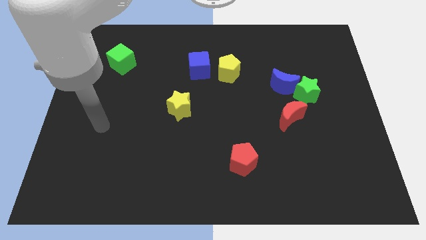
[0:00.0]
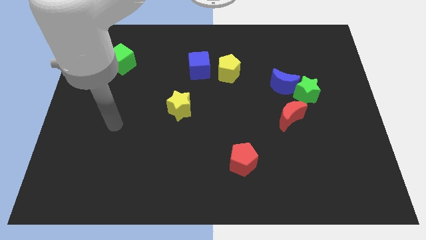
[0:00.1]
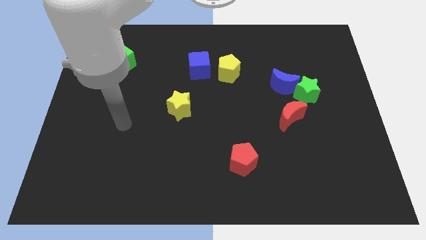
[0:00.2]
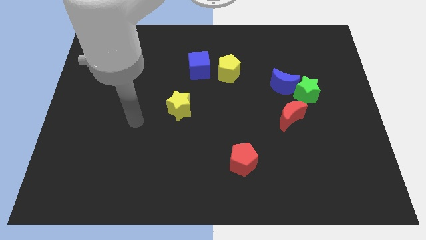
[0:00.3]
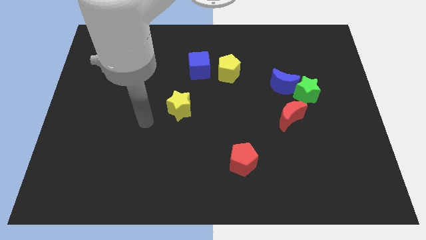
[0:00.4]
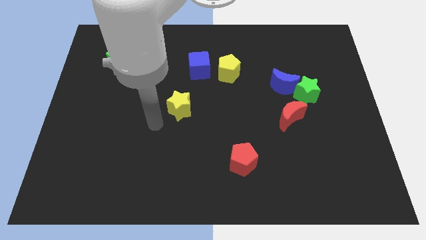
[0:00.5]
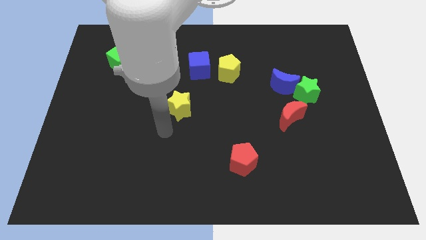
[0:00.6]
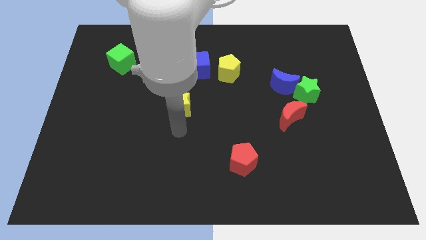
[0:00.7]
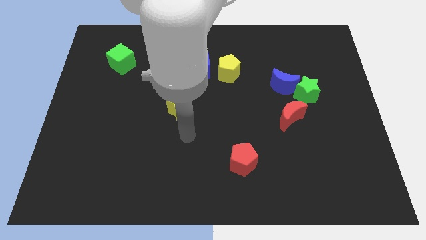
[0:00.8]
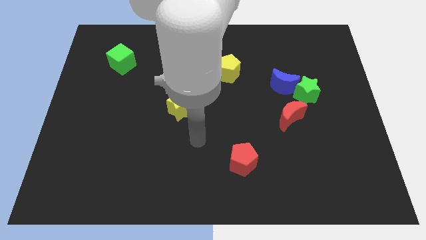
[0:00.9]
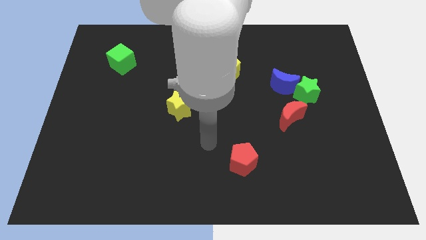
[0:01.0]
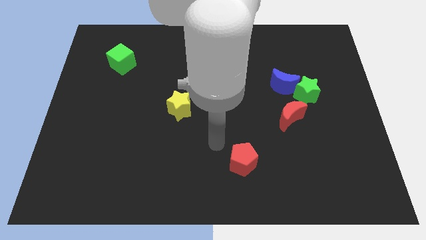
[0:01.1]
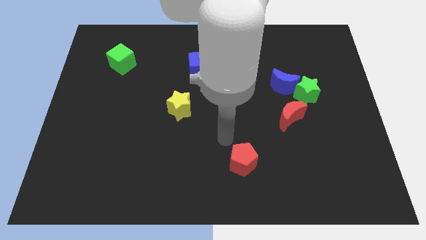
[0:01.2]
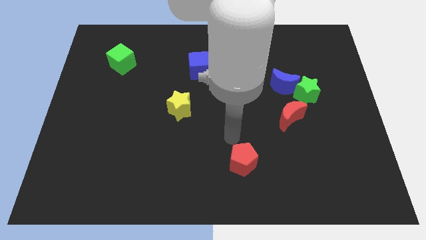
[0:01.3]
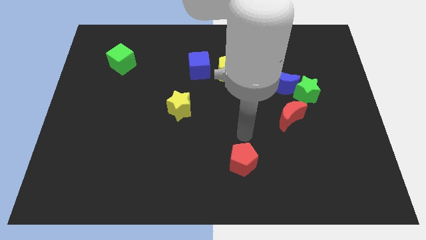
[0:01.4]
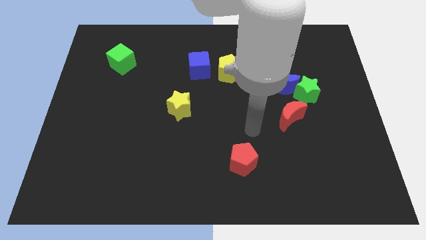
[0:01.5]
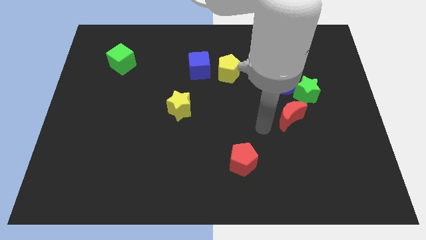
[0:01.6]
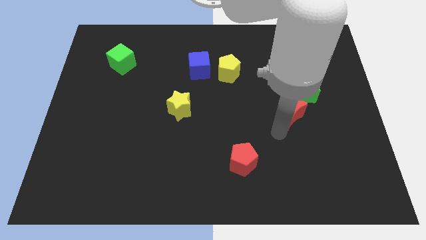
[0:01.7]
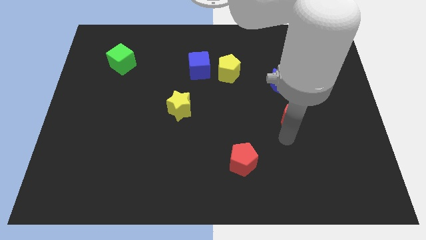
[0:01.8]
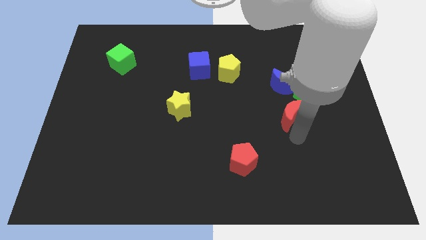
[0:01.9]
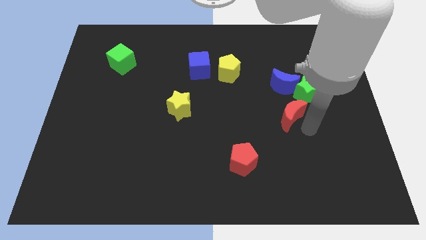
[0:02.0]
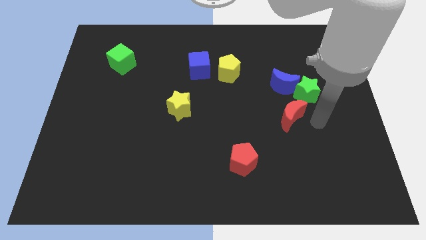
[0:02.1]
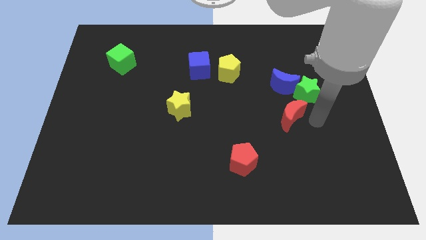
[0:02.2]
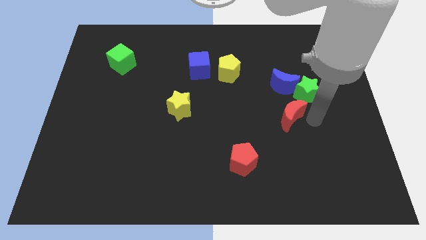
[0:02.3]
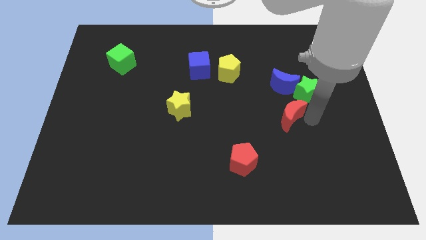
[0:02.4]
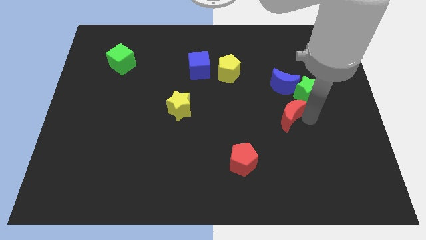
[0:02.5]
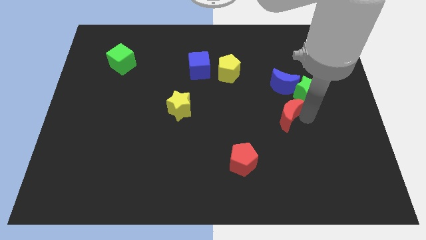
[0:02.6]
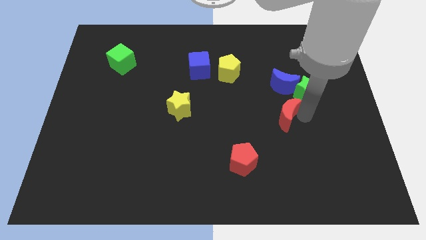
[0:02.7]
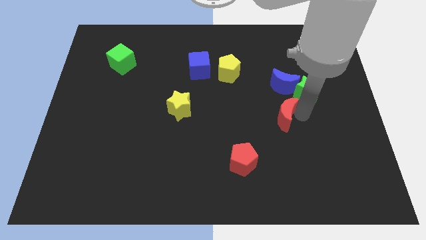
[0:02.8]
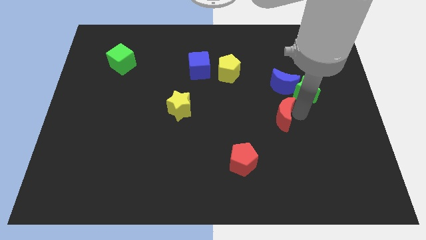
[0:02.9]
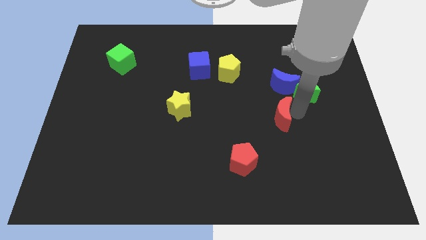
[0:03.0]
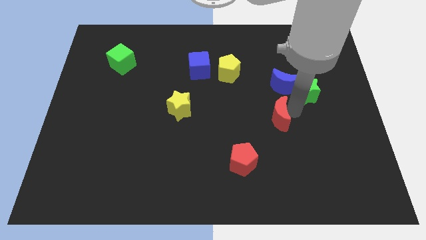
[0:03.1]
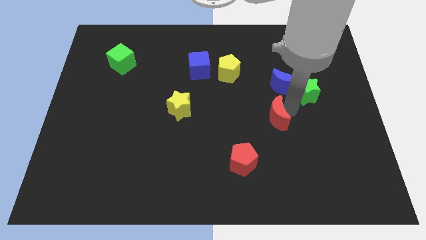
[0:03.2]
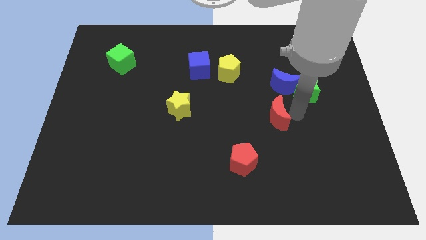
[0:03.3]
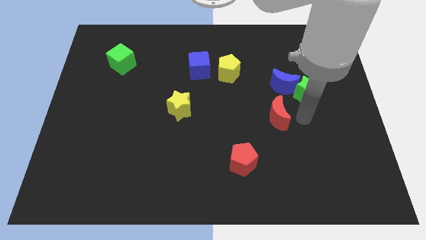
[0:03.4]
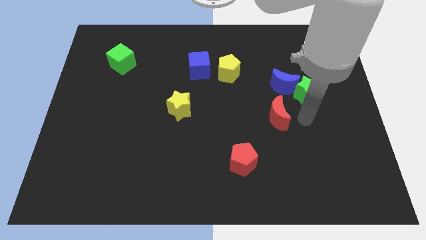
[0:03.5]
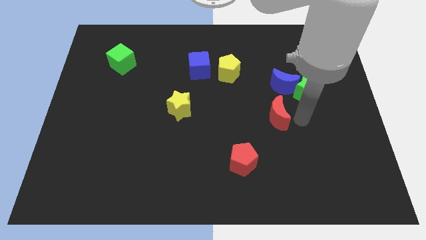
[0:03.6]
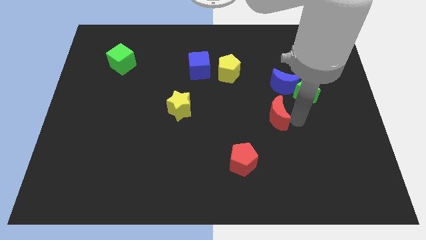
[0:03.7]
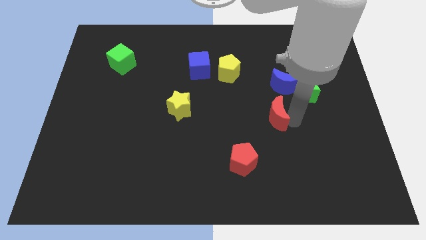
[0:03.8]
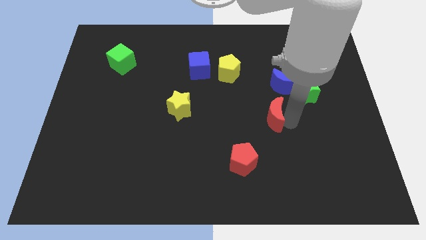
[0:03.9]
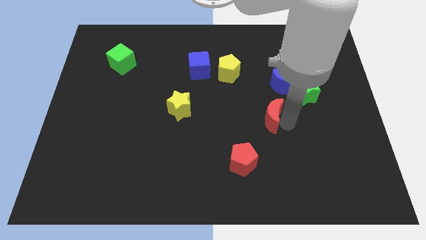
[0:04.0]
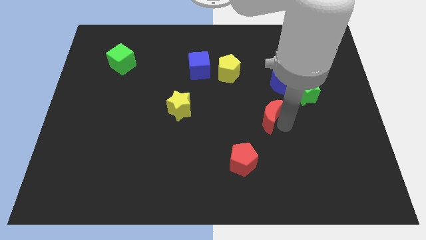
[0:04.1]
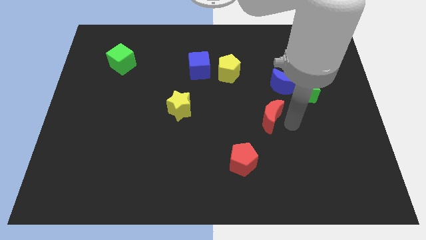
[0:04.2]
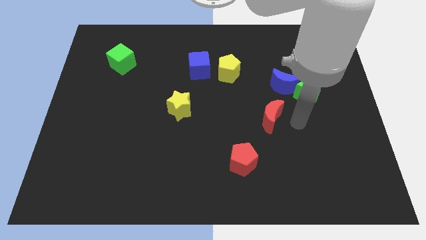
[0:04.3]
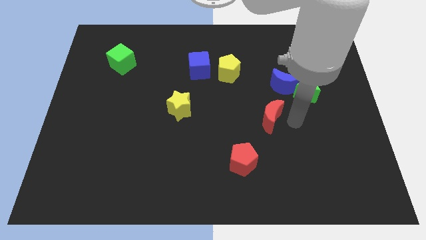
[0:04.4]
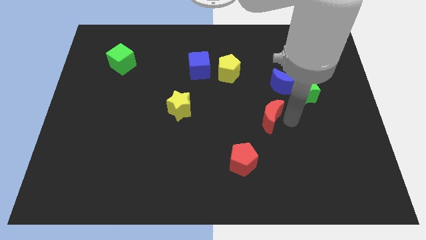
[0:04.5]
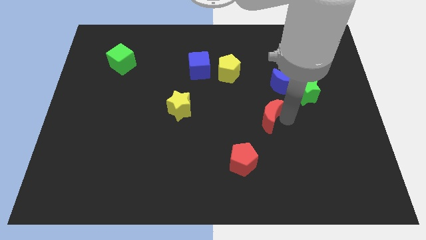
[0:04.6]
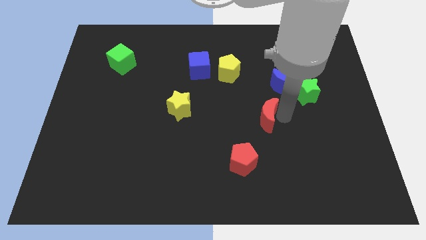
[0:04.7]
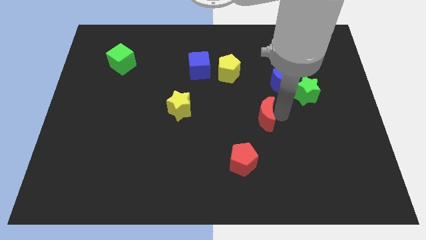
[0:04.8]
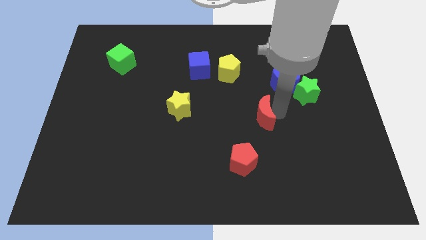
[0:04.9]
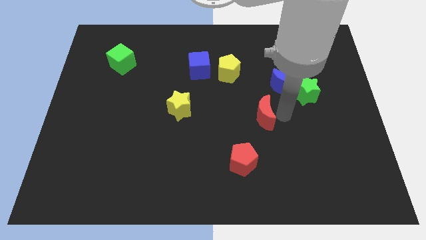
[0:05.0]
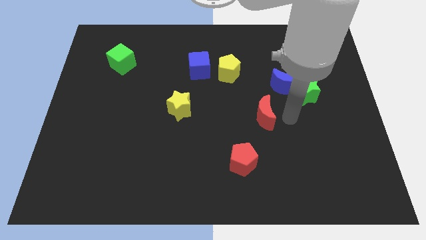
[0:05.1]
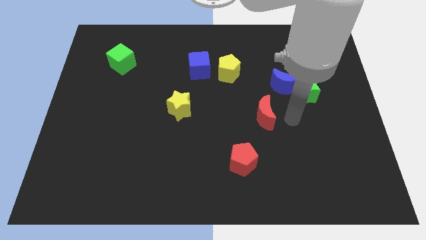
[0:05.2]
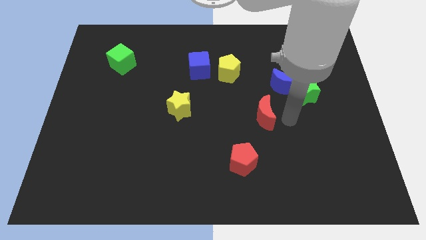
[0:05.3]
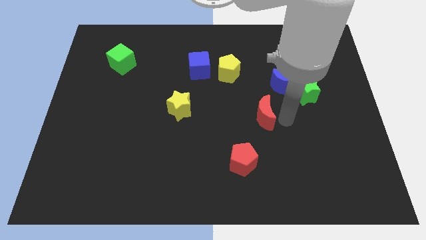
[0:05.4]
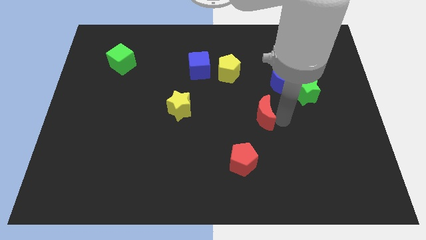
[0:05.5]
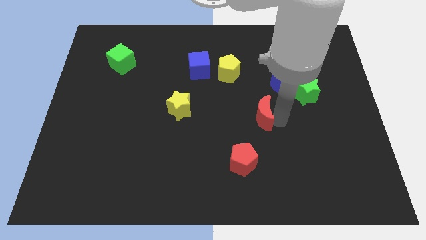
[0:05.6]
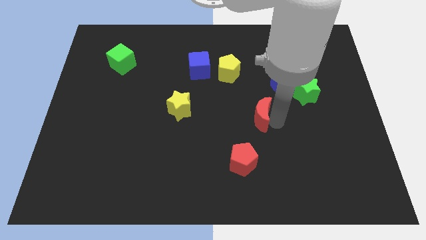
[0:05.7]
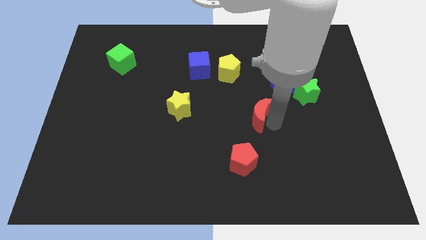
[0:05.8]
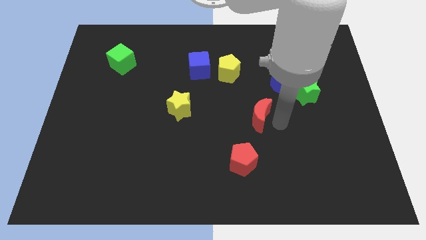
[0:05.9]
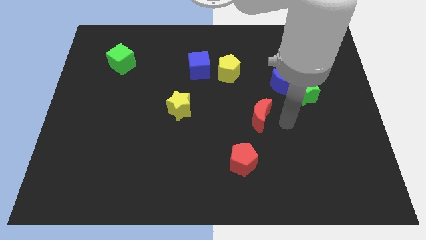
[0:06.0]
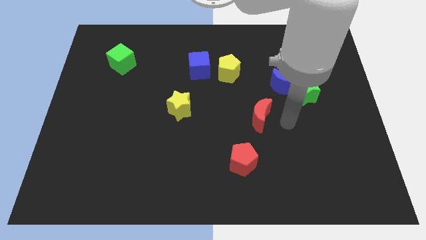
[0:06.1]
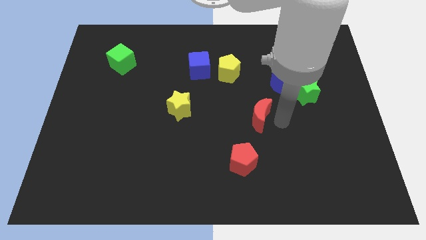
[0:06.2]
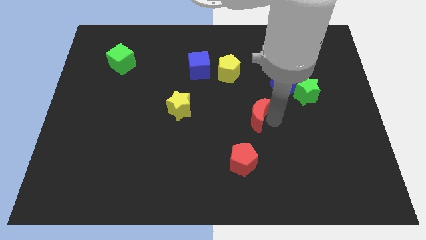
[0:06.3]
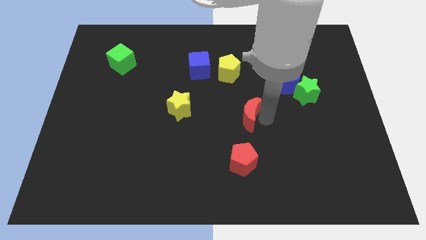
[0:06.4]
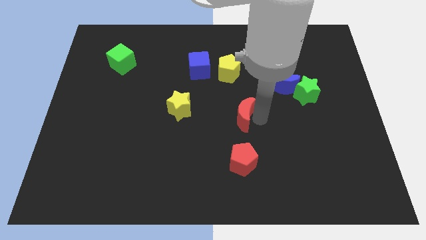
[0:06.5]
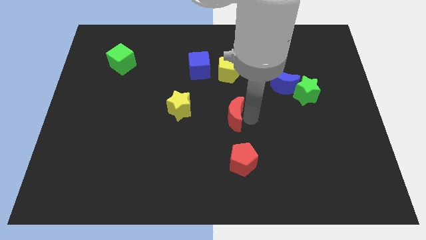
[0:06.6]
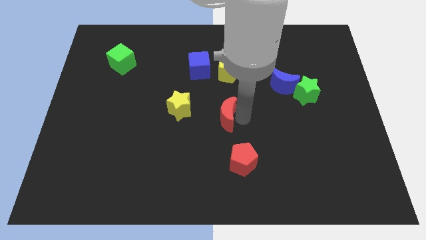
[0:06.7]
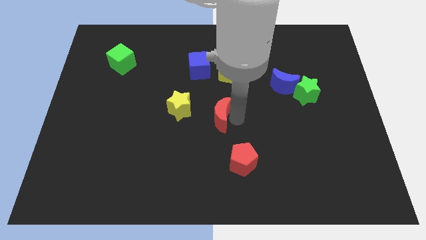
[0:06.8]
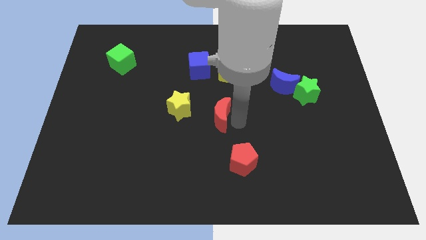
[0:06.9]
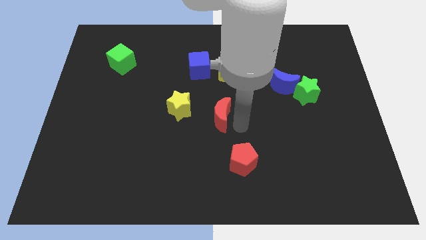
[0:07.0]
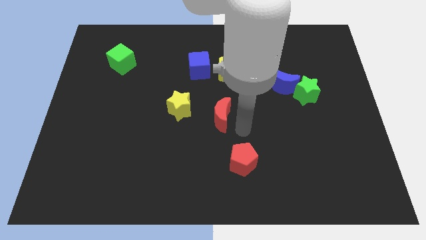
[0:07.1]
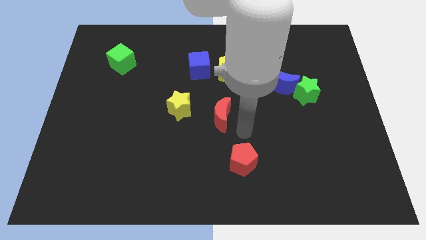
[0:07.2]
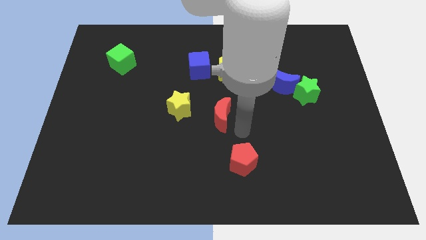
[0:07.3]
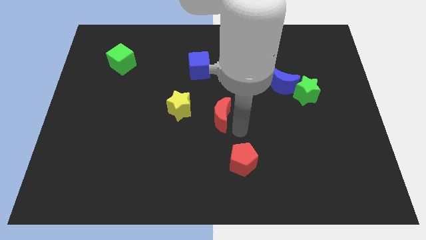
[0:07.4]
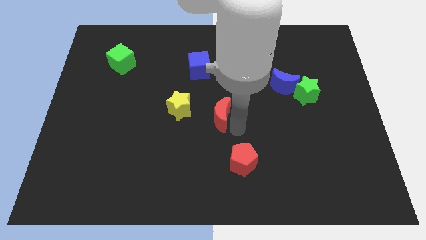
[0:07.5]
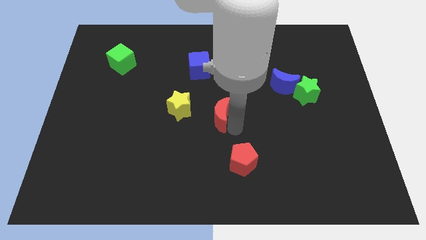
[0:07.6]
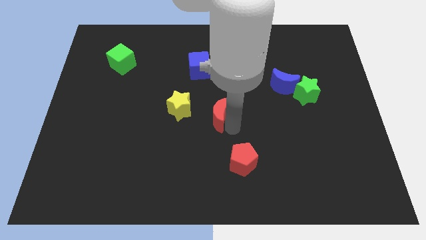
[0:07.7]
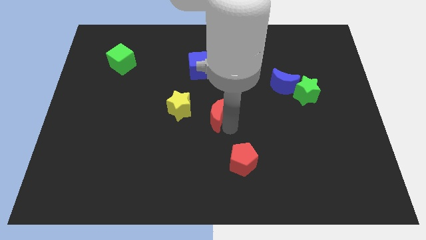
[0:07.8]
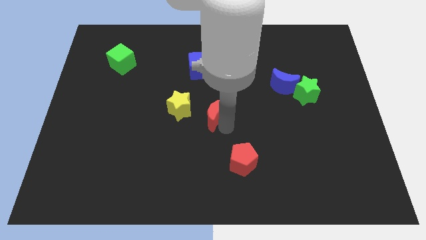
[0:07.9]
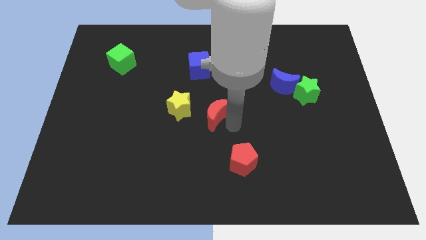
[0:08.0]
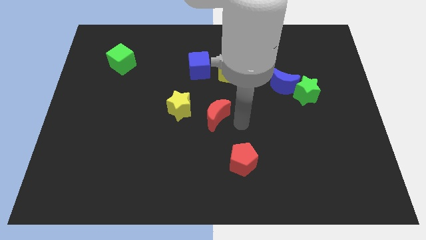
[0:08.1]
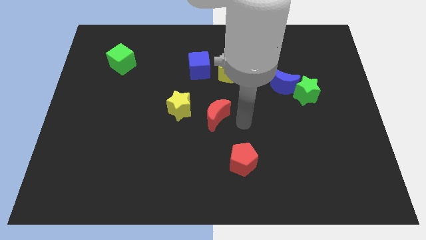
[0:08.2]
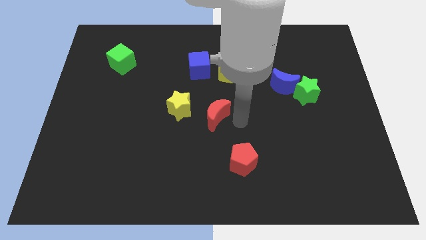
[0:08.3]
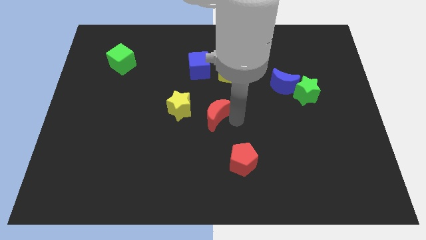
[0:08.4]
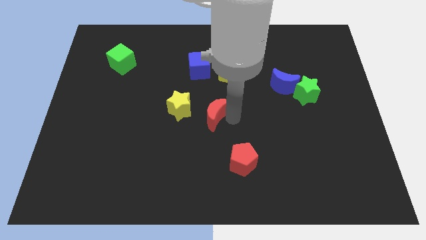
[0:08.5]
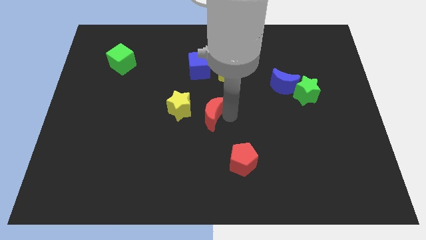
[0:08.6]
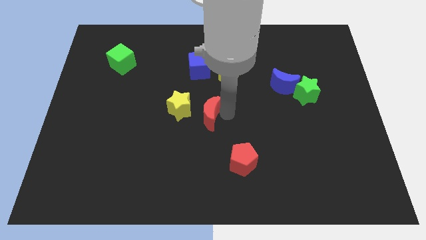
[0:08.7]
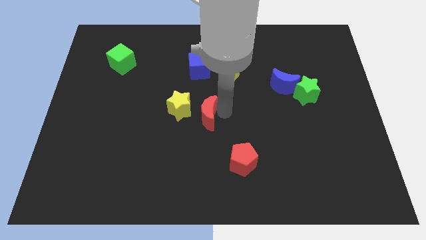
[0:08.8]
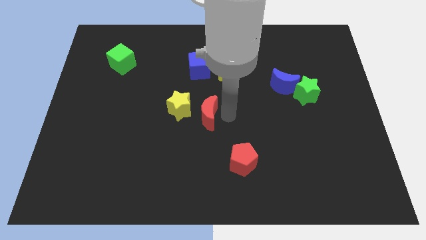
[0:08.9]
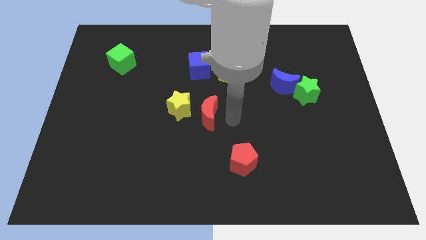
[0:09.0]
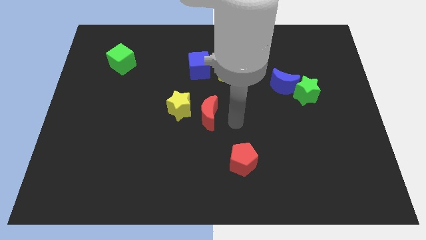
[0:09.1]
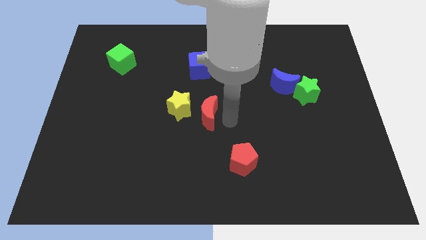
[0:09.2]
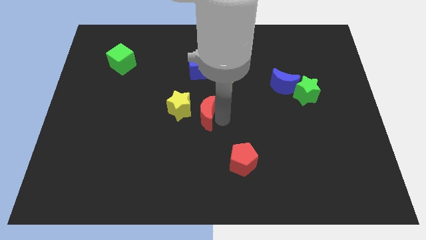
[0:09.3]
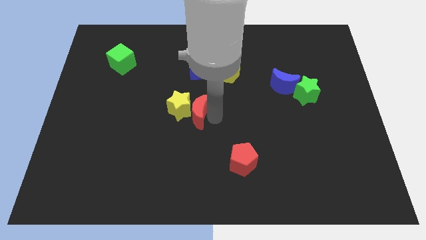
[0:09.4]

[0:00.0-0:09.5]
move the red moon towards the yellow star
